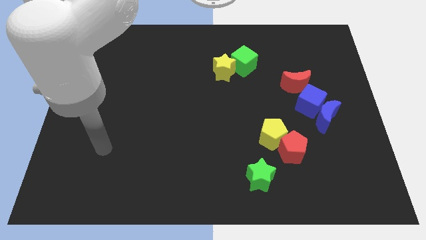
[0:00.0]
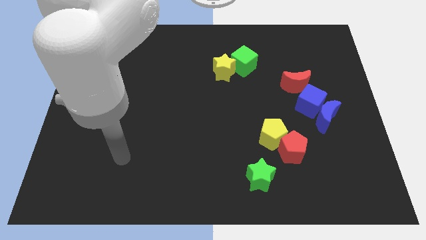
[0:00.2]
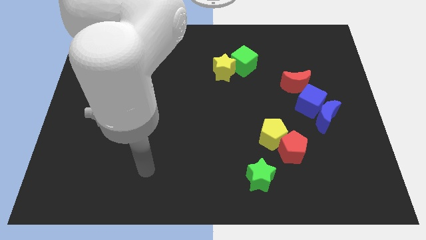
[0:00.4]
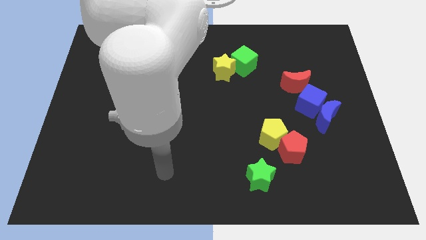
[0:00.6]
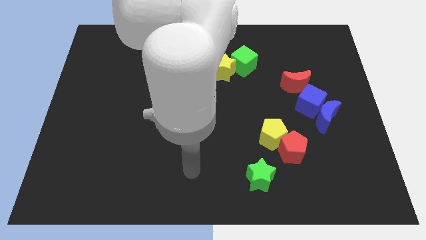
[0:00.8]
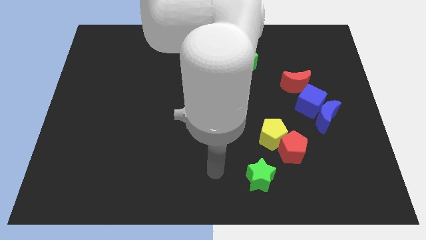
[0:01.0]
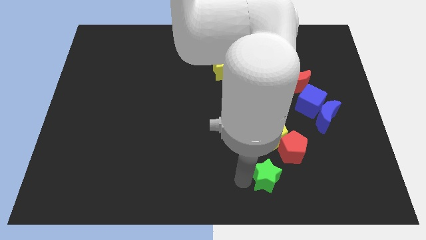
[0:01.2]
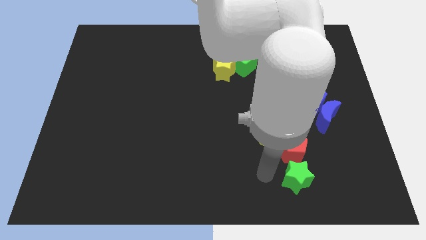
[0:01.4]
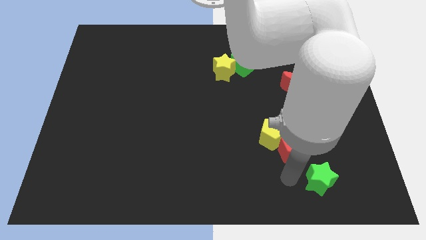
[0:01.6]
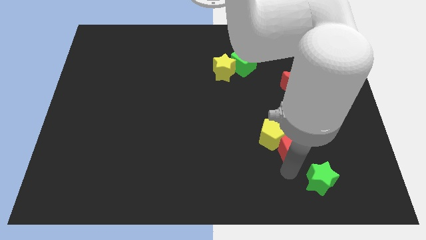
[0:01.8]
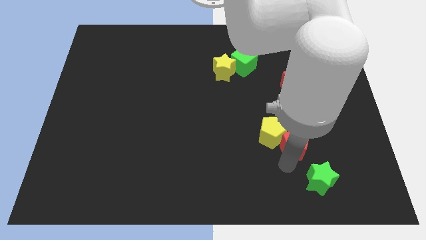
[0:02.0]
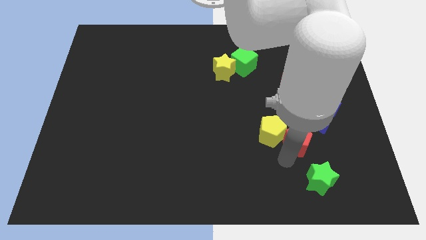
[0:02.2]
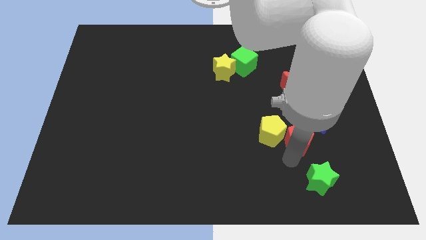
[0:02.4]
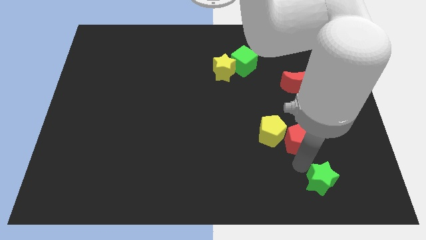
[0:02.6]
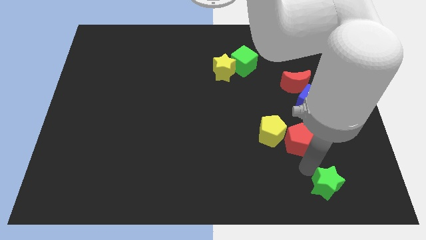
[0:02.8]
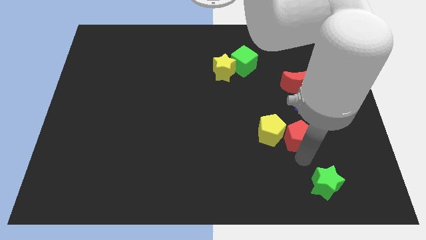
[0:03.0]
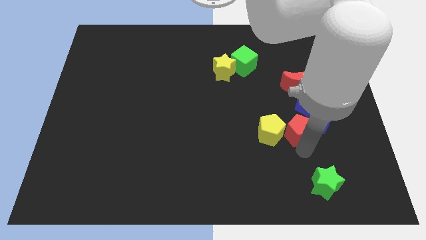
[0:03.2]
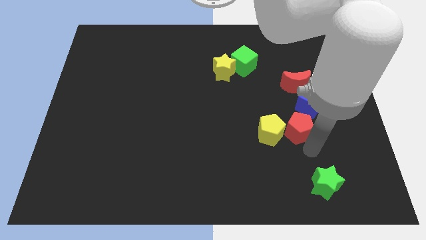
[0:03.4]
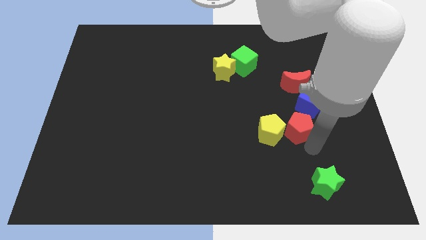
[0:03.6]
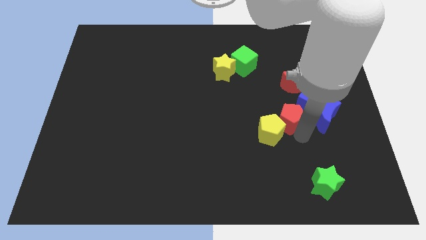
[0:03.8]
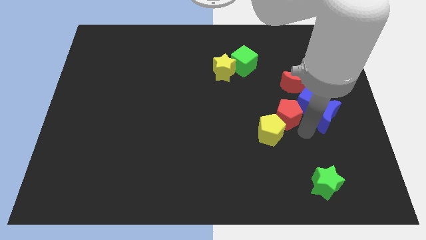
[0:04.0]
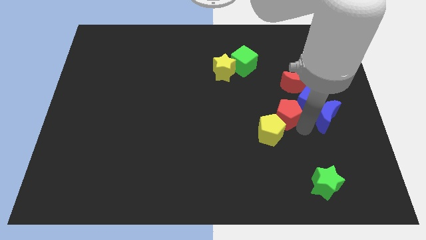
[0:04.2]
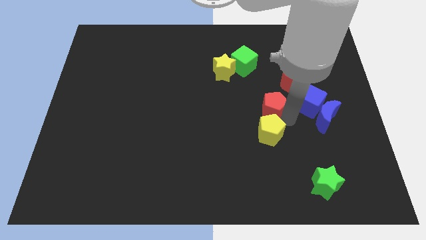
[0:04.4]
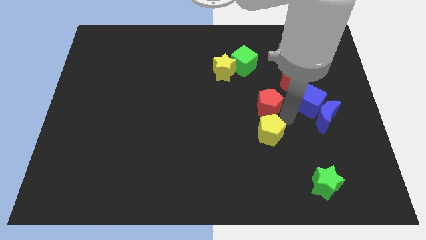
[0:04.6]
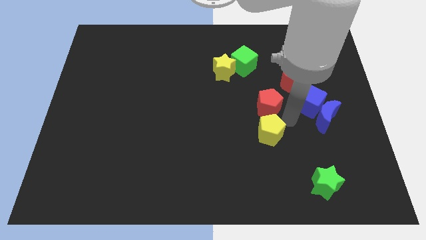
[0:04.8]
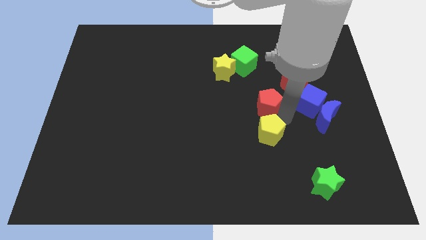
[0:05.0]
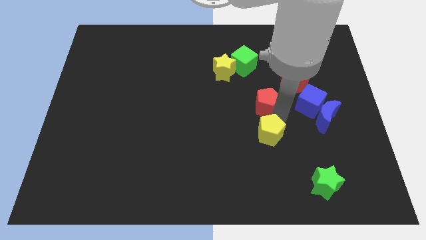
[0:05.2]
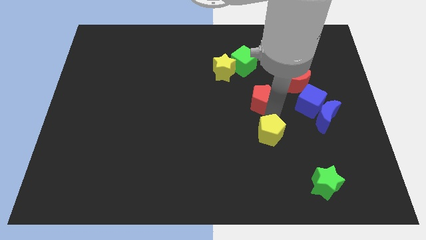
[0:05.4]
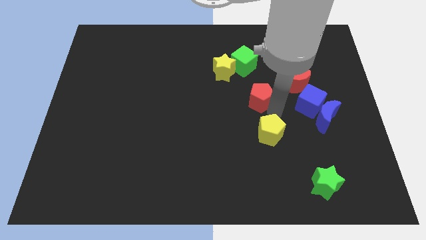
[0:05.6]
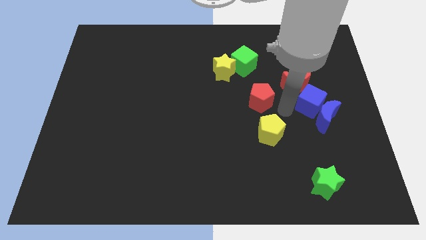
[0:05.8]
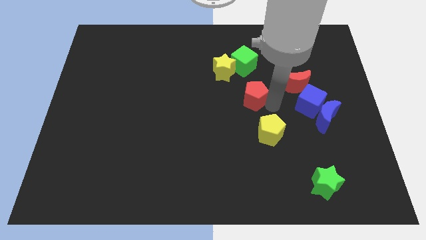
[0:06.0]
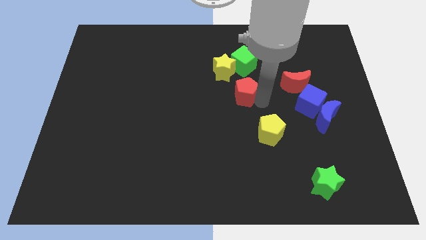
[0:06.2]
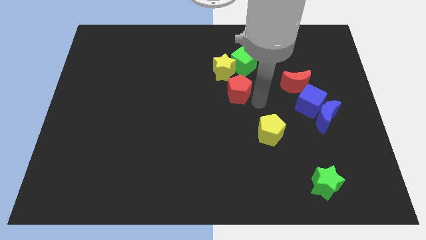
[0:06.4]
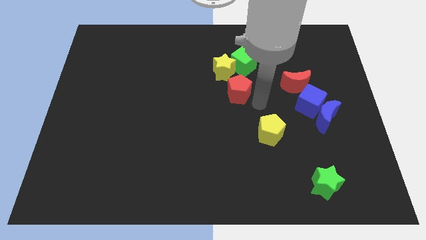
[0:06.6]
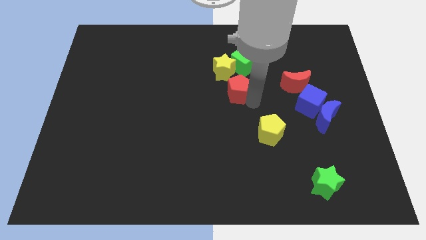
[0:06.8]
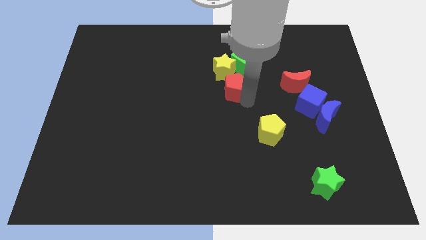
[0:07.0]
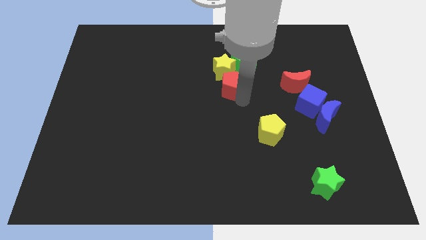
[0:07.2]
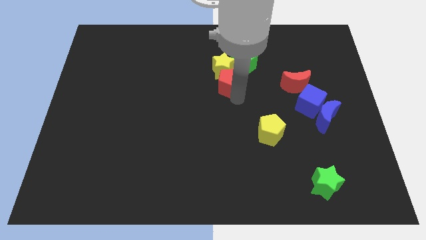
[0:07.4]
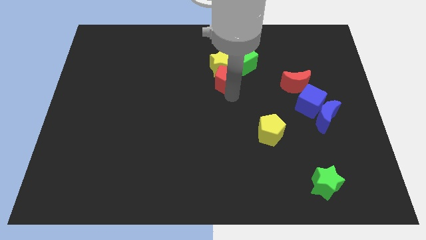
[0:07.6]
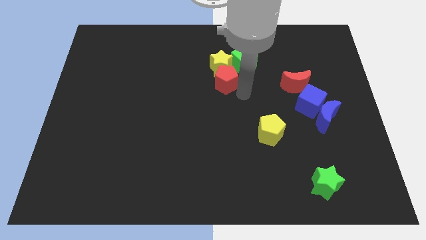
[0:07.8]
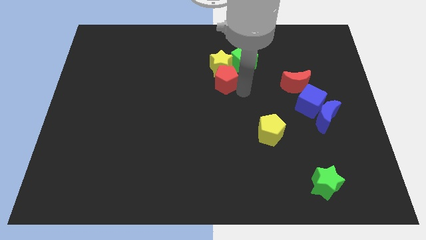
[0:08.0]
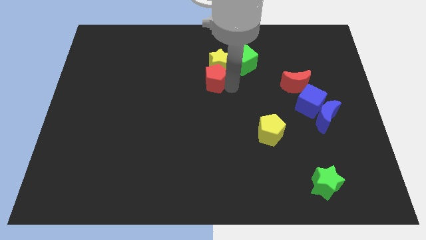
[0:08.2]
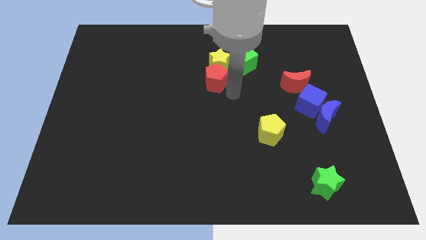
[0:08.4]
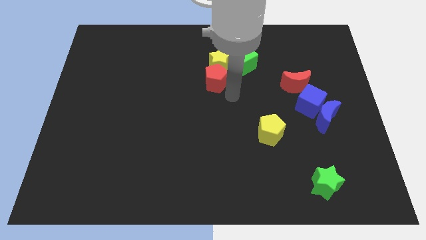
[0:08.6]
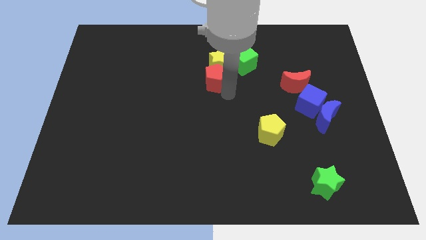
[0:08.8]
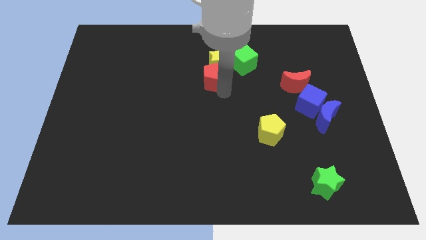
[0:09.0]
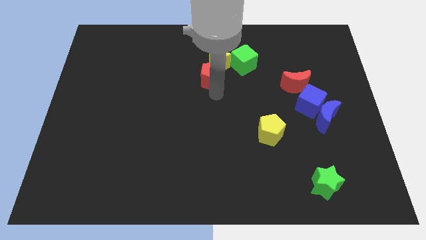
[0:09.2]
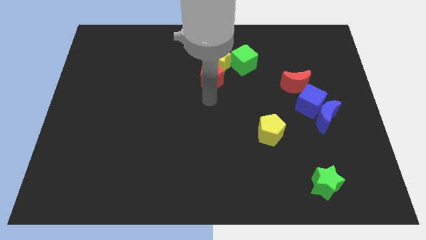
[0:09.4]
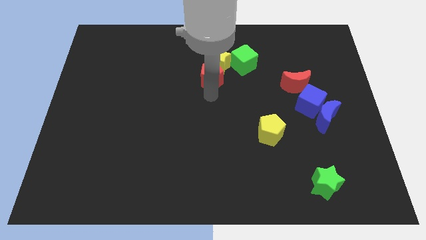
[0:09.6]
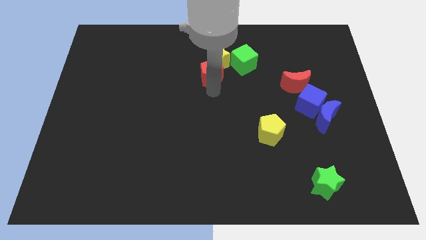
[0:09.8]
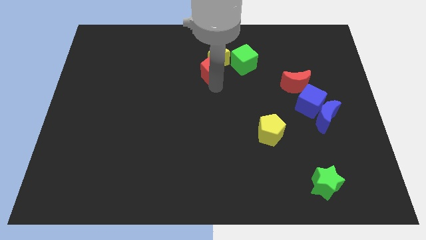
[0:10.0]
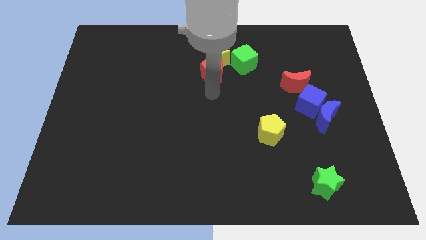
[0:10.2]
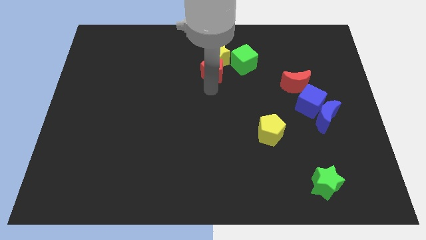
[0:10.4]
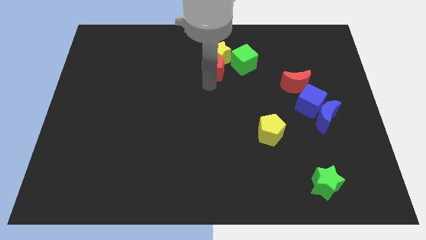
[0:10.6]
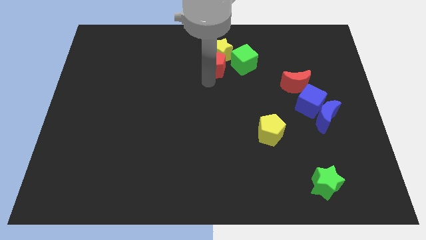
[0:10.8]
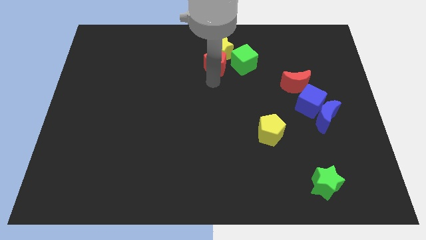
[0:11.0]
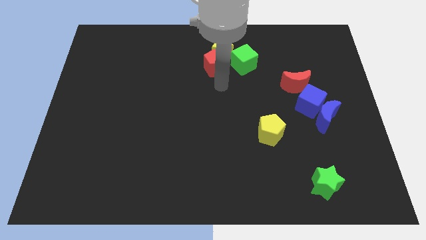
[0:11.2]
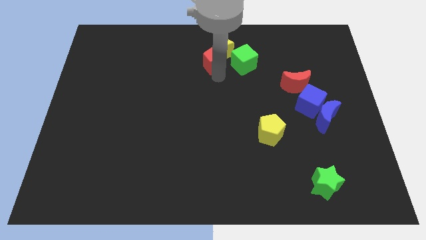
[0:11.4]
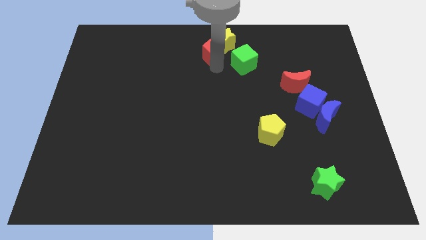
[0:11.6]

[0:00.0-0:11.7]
put the red pentagon to the top side

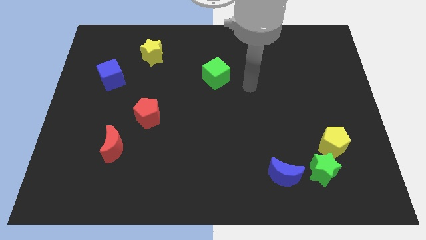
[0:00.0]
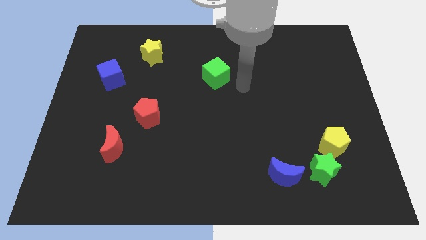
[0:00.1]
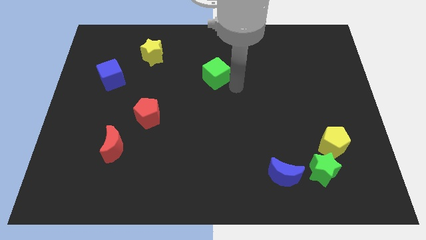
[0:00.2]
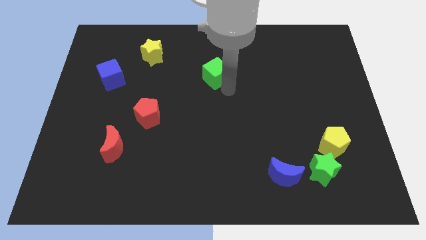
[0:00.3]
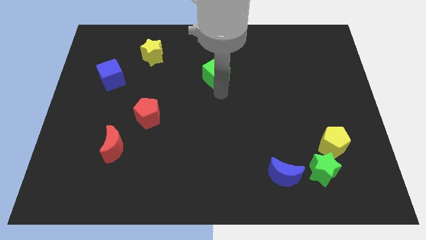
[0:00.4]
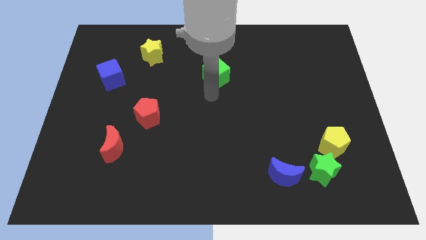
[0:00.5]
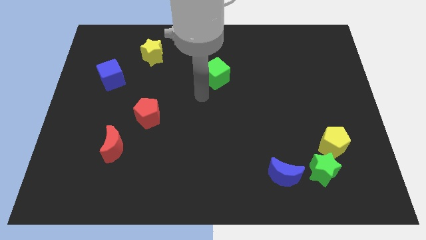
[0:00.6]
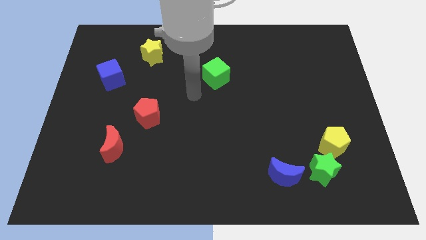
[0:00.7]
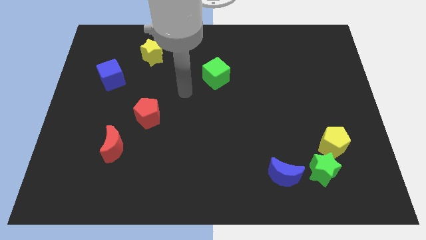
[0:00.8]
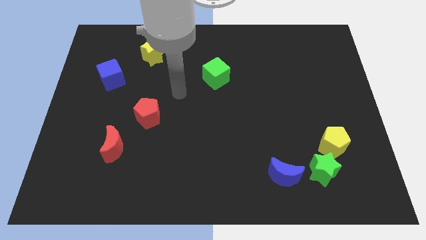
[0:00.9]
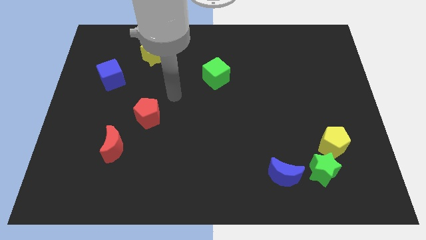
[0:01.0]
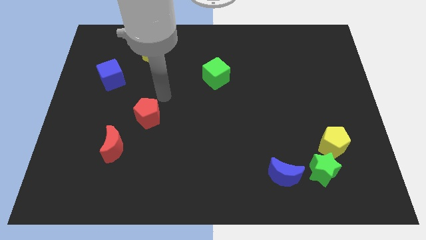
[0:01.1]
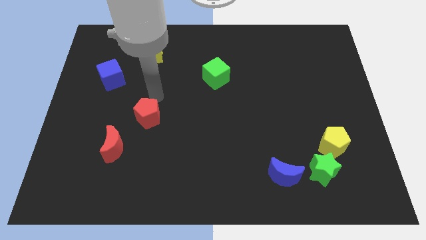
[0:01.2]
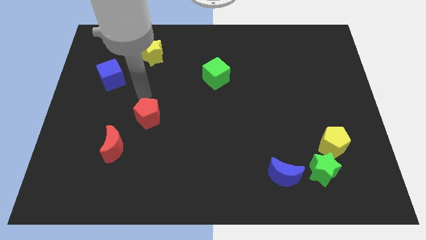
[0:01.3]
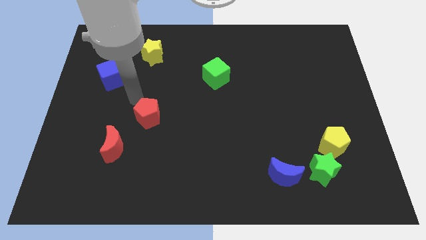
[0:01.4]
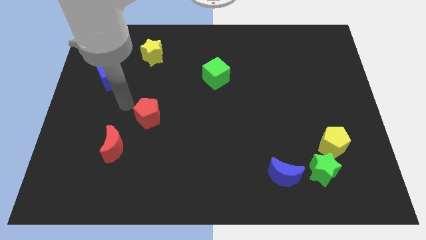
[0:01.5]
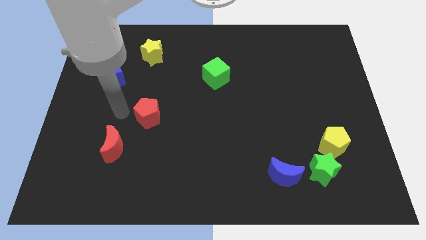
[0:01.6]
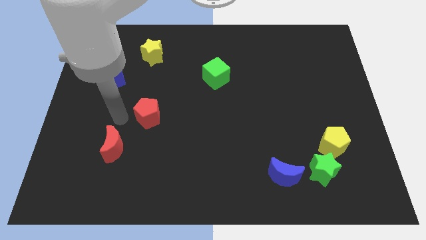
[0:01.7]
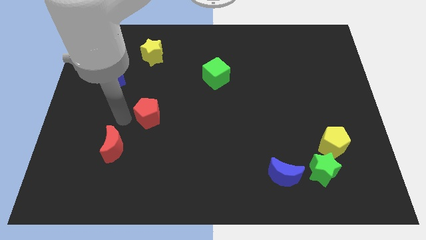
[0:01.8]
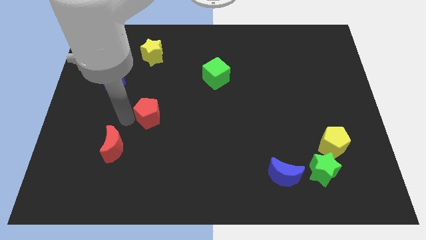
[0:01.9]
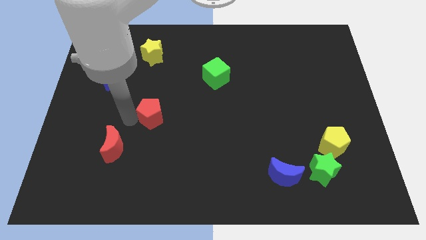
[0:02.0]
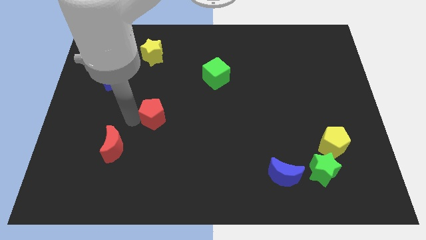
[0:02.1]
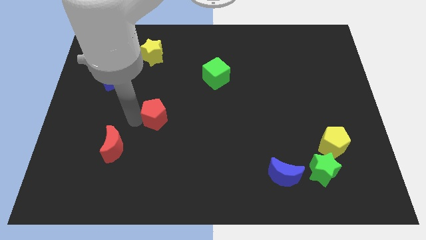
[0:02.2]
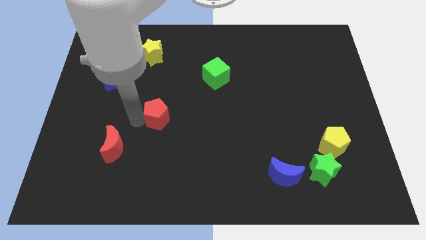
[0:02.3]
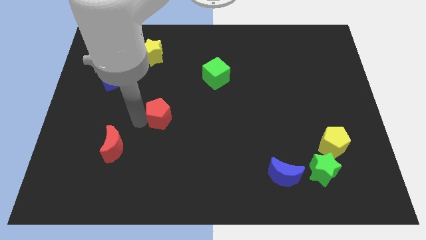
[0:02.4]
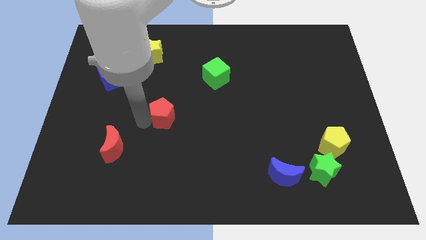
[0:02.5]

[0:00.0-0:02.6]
push the red pentagon to the middle
